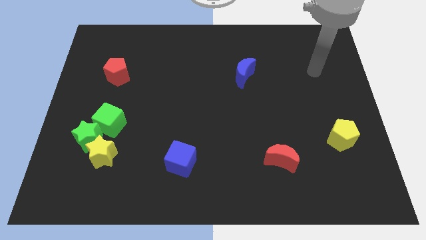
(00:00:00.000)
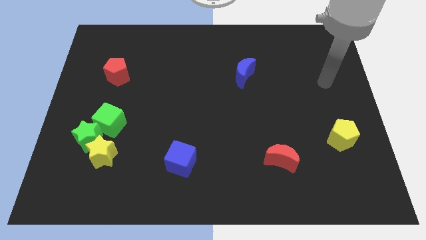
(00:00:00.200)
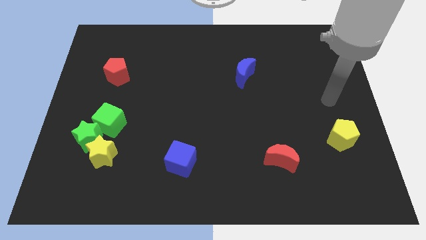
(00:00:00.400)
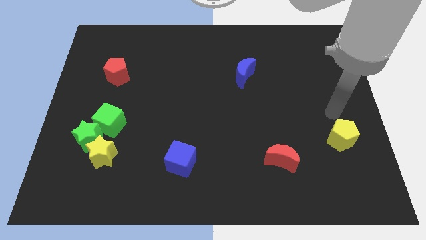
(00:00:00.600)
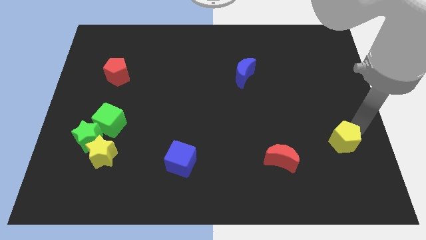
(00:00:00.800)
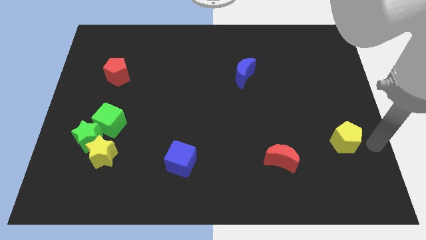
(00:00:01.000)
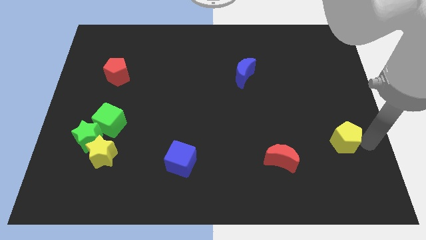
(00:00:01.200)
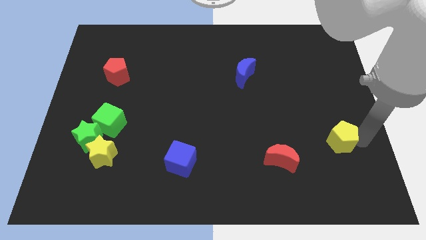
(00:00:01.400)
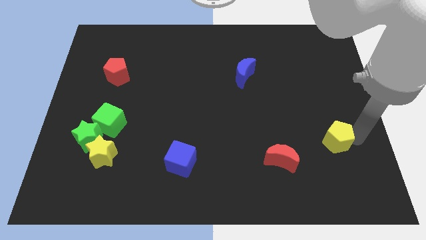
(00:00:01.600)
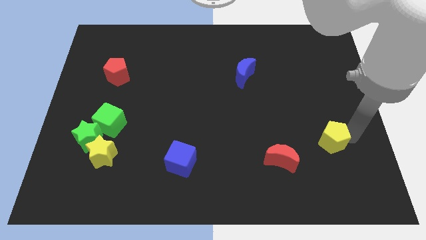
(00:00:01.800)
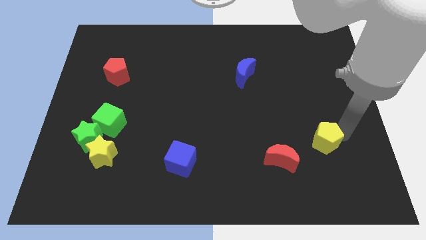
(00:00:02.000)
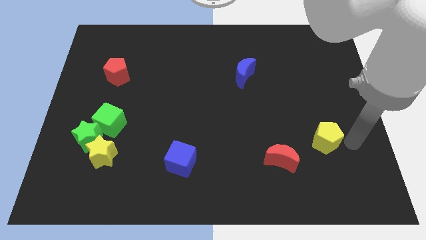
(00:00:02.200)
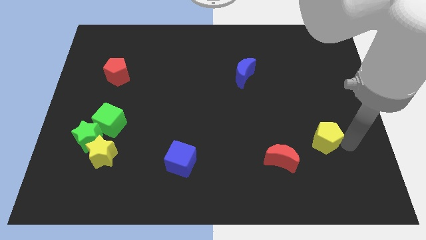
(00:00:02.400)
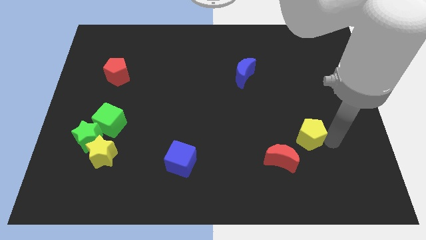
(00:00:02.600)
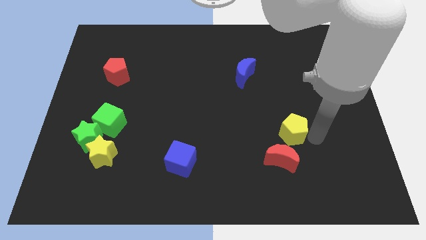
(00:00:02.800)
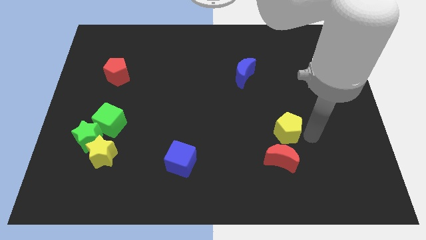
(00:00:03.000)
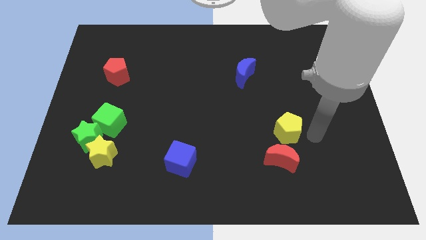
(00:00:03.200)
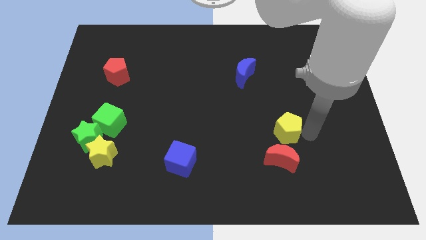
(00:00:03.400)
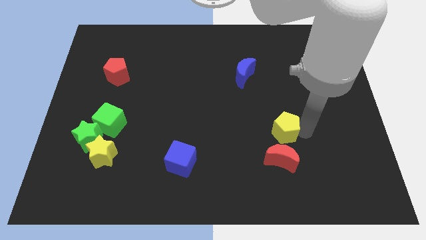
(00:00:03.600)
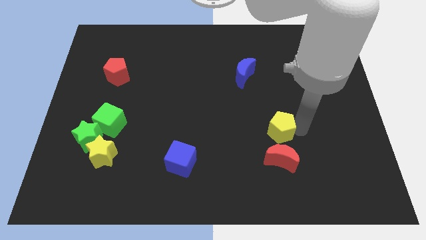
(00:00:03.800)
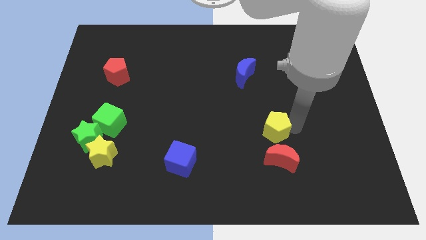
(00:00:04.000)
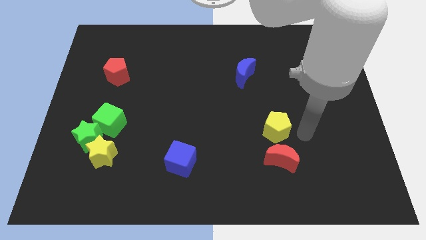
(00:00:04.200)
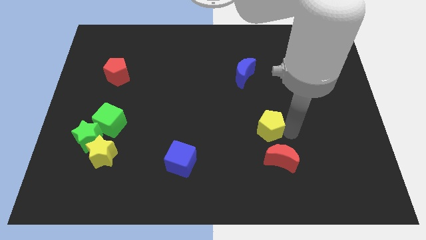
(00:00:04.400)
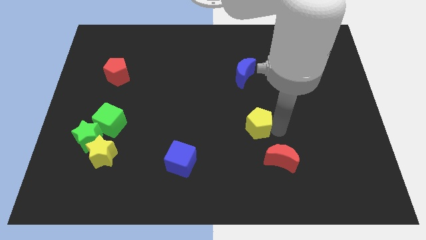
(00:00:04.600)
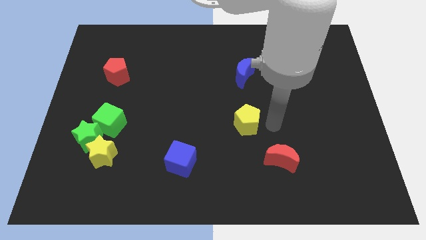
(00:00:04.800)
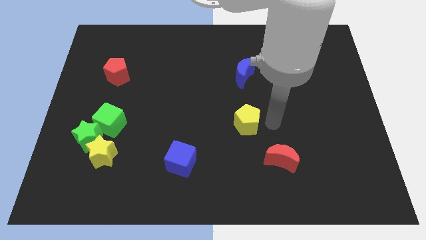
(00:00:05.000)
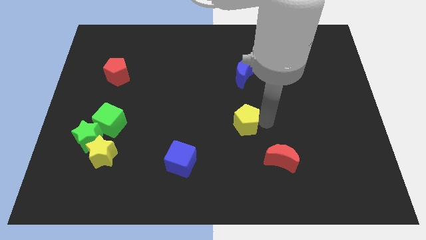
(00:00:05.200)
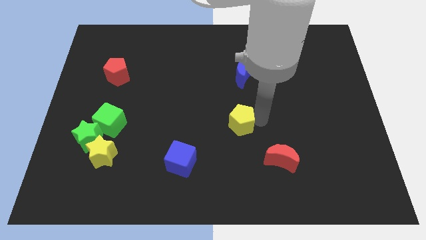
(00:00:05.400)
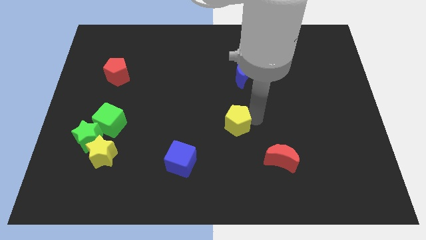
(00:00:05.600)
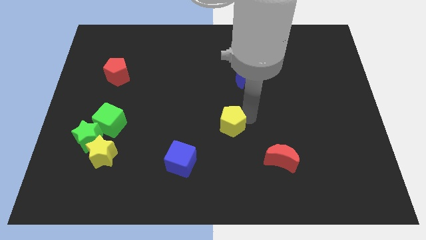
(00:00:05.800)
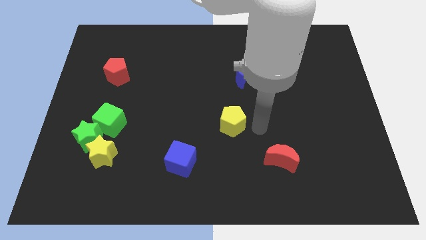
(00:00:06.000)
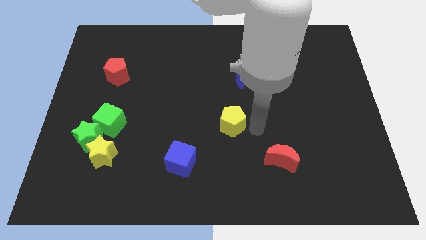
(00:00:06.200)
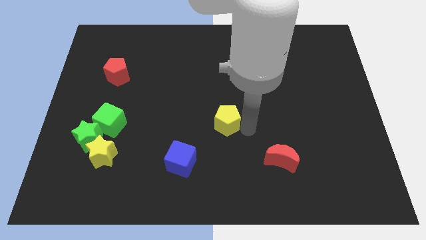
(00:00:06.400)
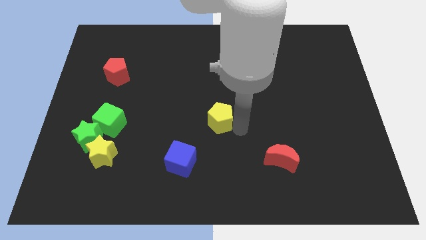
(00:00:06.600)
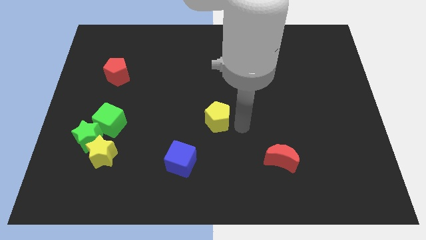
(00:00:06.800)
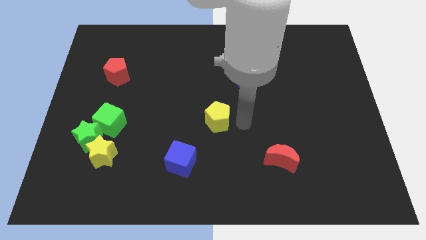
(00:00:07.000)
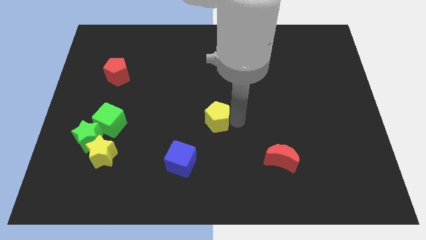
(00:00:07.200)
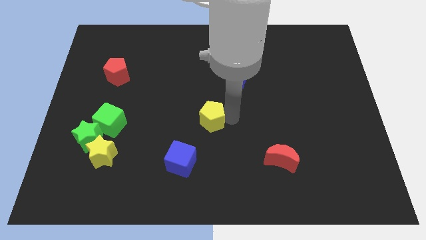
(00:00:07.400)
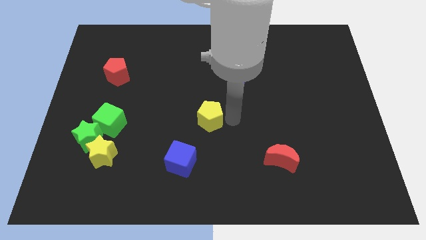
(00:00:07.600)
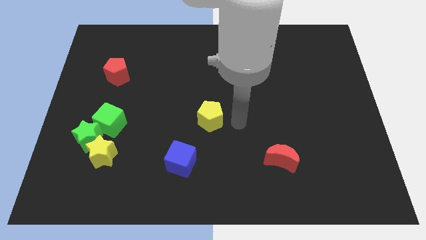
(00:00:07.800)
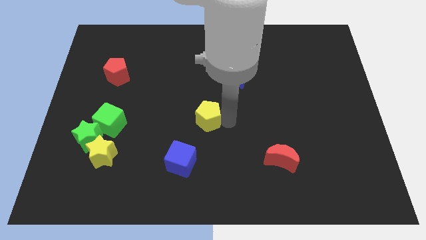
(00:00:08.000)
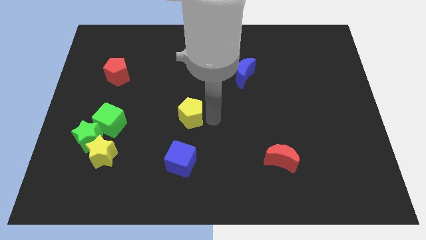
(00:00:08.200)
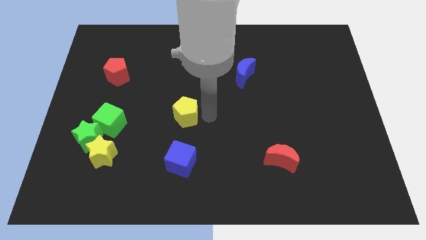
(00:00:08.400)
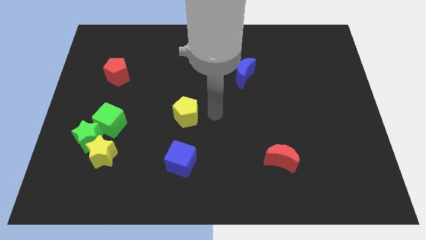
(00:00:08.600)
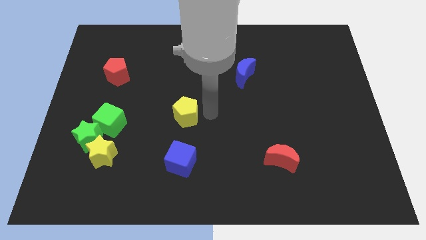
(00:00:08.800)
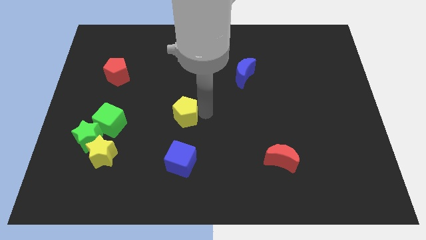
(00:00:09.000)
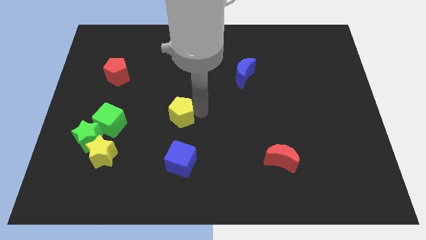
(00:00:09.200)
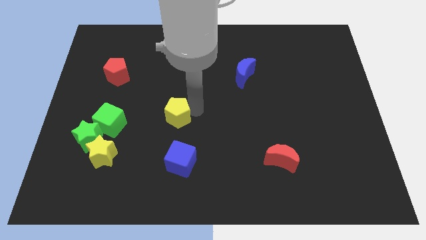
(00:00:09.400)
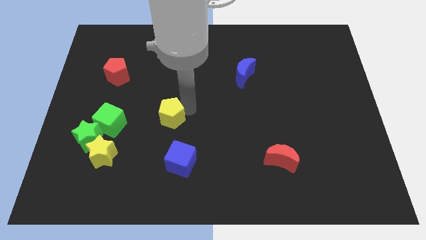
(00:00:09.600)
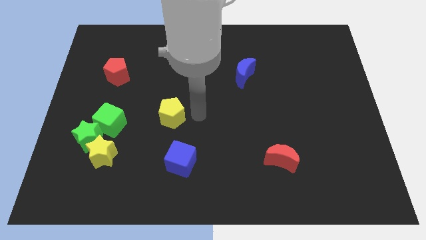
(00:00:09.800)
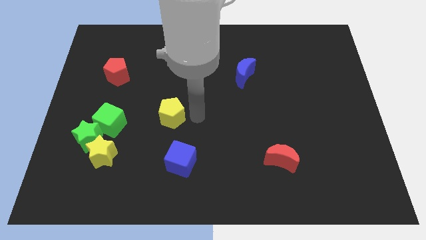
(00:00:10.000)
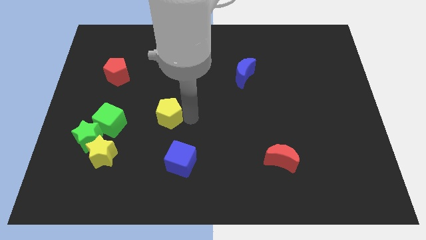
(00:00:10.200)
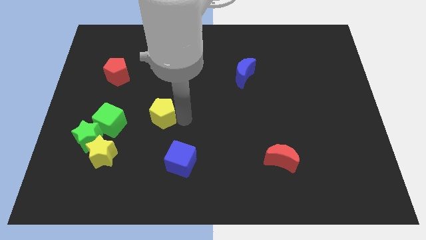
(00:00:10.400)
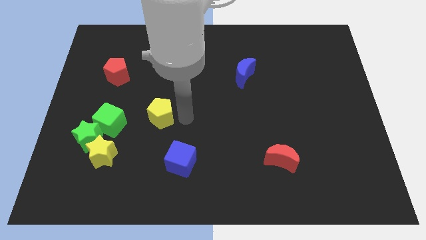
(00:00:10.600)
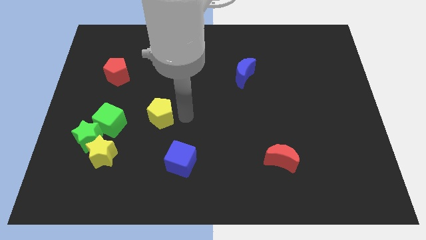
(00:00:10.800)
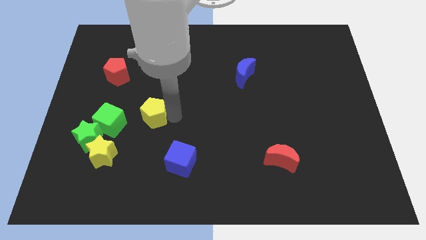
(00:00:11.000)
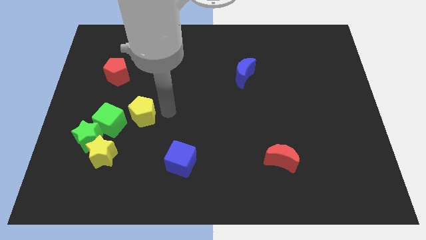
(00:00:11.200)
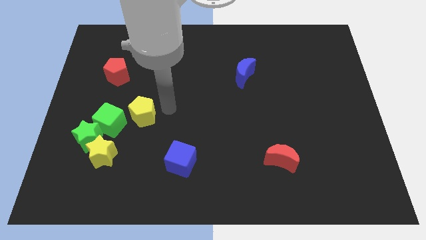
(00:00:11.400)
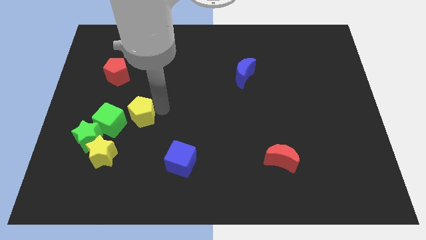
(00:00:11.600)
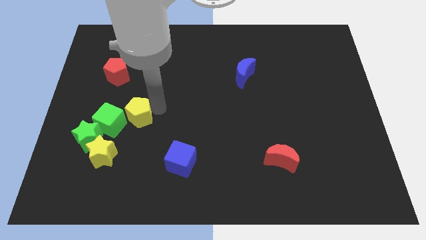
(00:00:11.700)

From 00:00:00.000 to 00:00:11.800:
push the yellow pentagon to the top right side of the green star

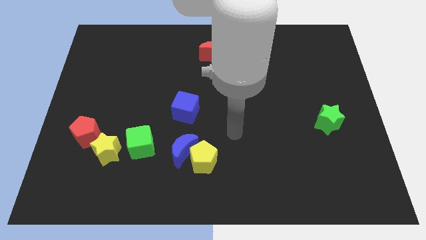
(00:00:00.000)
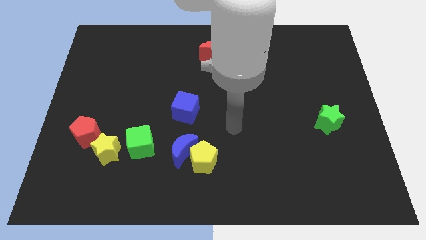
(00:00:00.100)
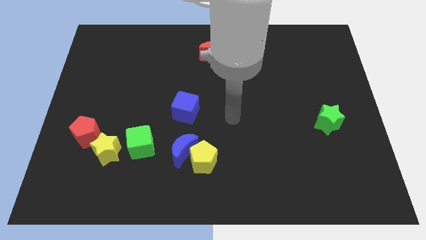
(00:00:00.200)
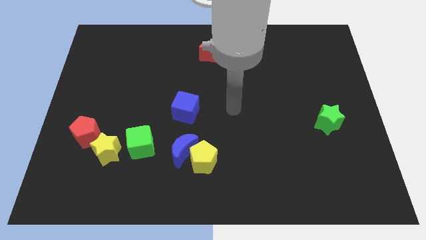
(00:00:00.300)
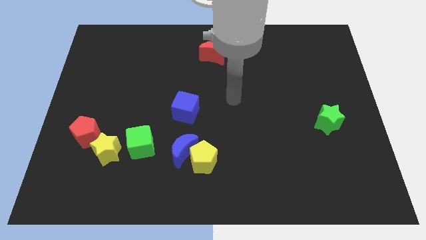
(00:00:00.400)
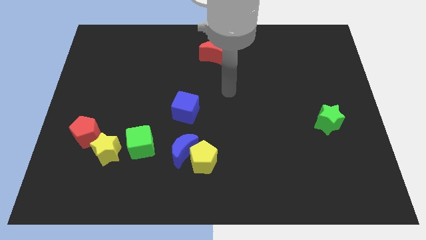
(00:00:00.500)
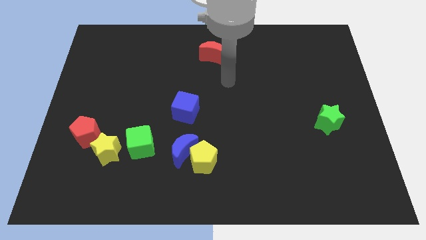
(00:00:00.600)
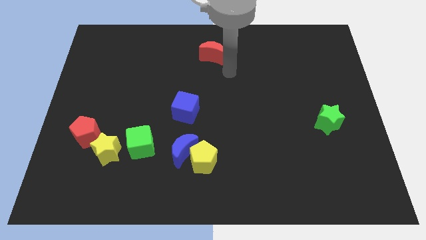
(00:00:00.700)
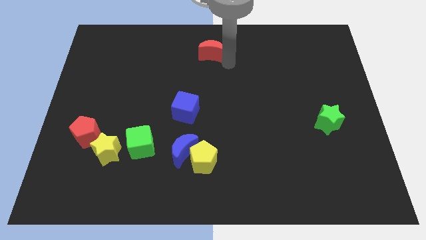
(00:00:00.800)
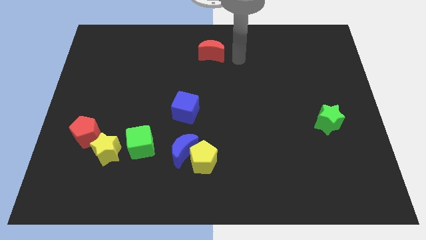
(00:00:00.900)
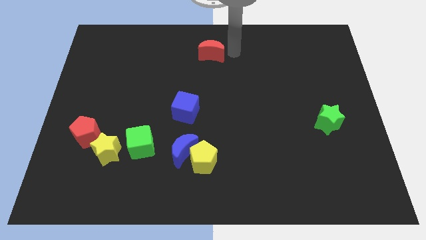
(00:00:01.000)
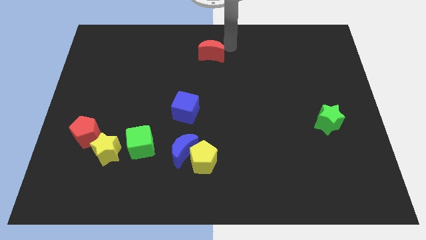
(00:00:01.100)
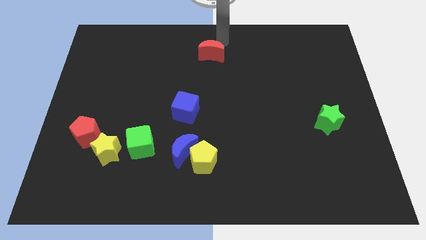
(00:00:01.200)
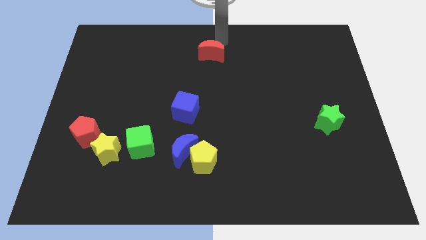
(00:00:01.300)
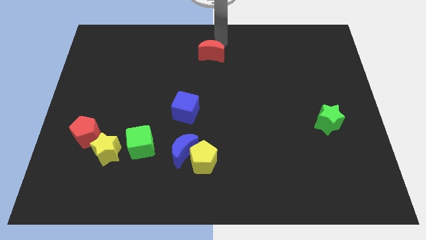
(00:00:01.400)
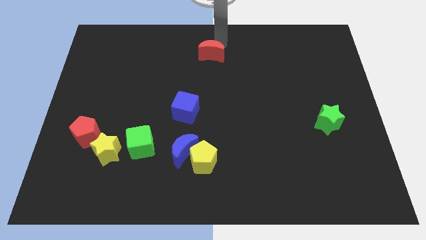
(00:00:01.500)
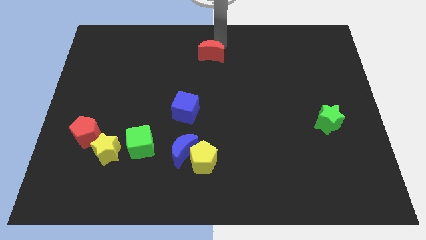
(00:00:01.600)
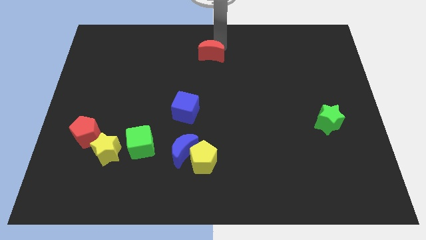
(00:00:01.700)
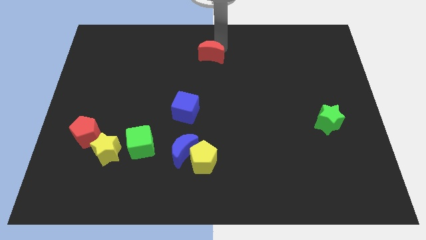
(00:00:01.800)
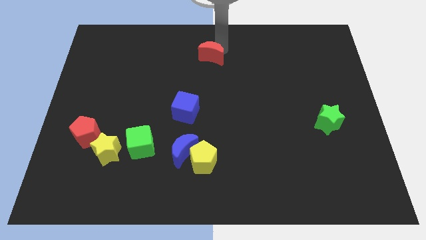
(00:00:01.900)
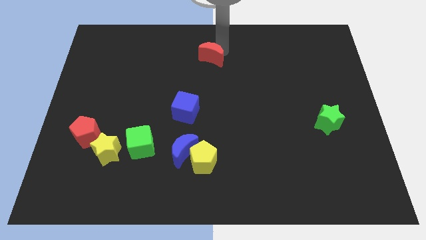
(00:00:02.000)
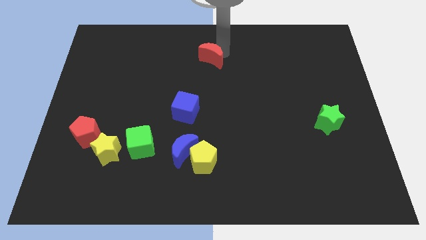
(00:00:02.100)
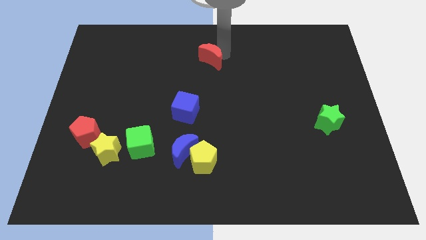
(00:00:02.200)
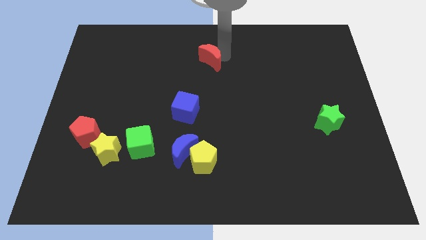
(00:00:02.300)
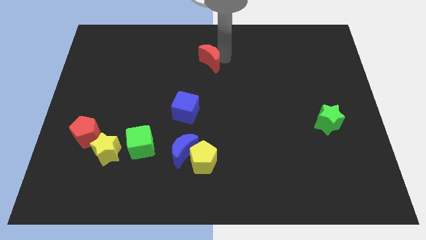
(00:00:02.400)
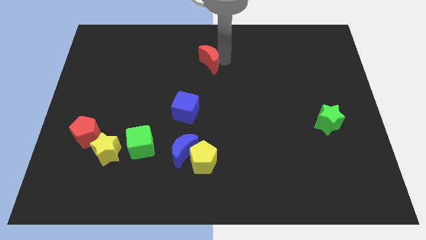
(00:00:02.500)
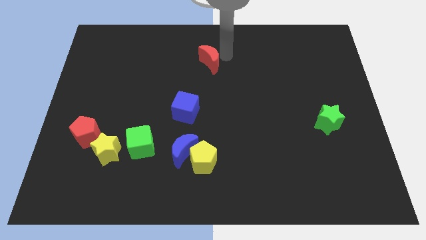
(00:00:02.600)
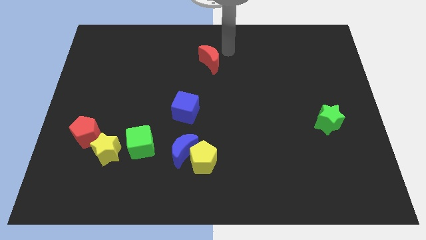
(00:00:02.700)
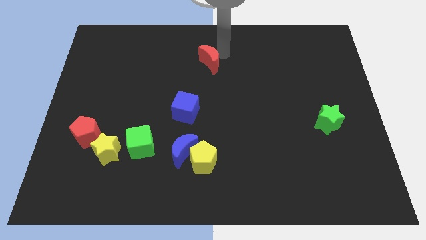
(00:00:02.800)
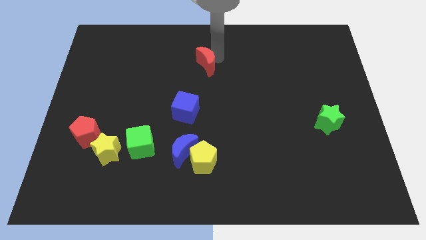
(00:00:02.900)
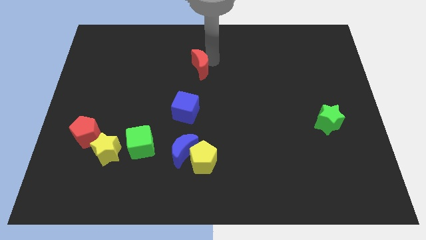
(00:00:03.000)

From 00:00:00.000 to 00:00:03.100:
move the red moon to the top side of the blue cube
